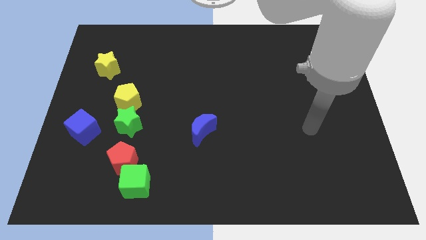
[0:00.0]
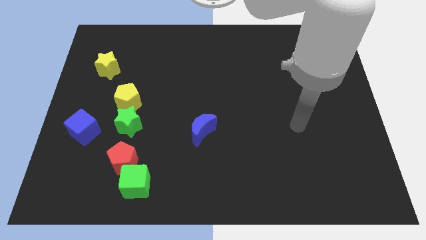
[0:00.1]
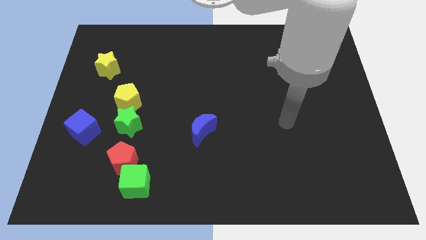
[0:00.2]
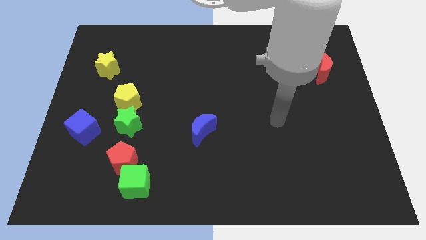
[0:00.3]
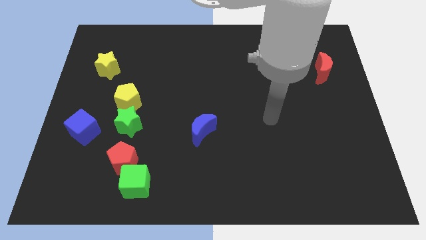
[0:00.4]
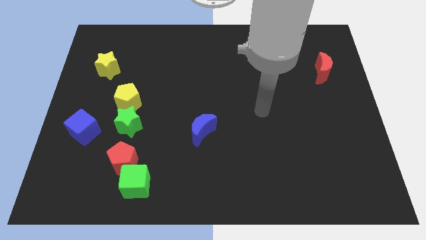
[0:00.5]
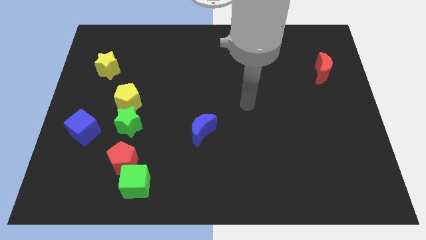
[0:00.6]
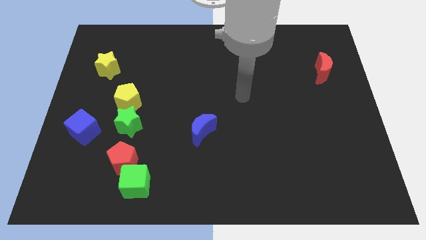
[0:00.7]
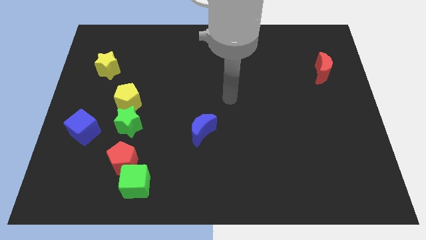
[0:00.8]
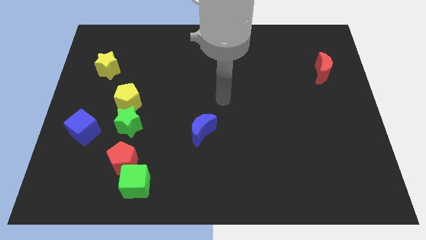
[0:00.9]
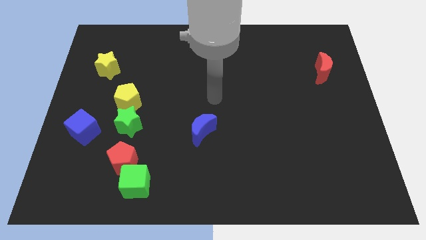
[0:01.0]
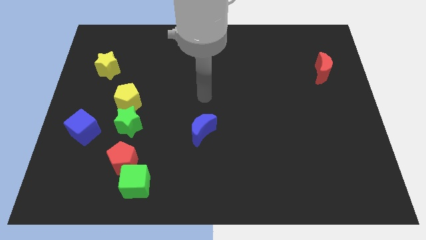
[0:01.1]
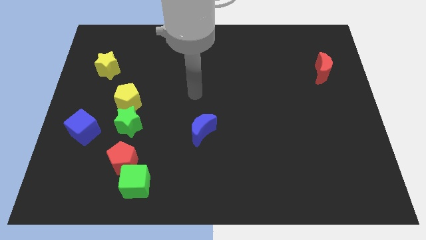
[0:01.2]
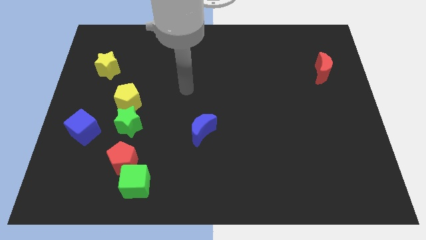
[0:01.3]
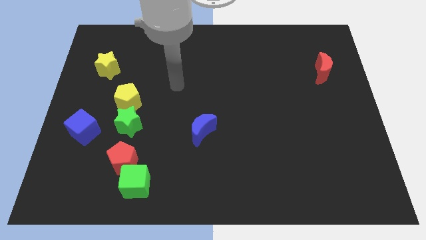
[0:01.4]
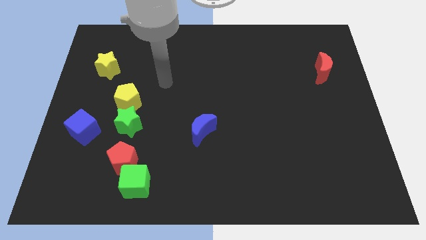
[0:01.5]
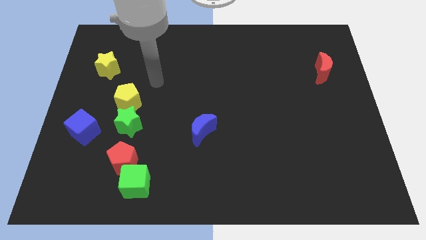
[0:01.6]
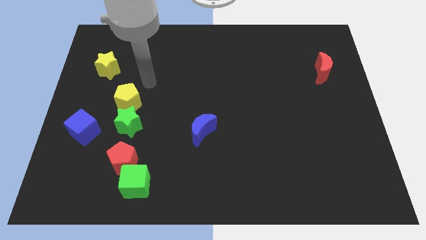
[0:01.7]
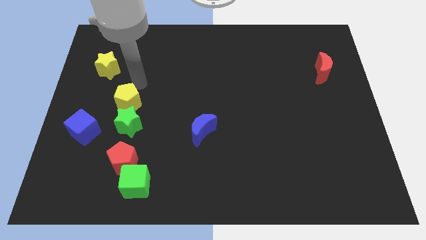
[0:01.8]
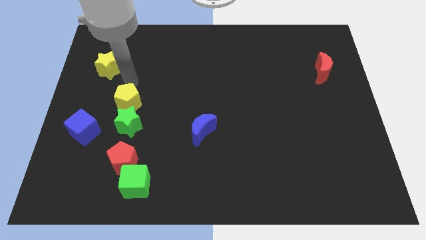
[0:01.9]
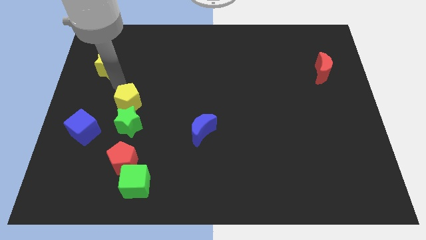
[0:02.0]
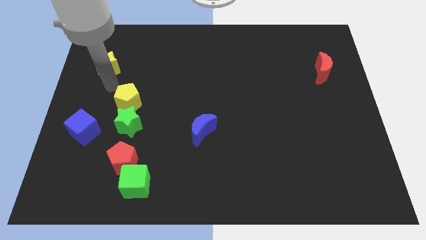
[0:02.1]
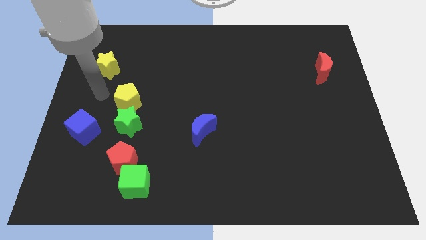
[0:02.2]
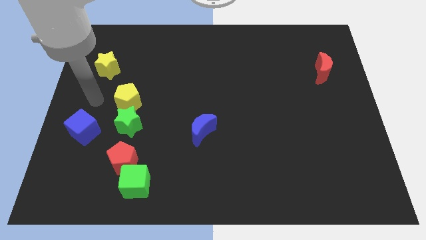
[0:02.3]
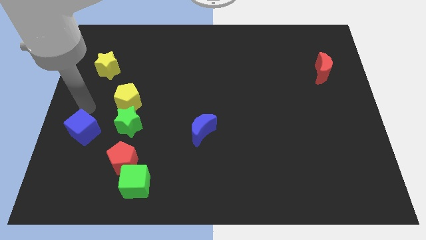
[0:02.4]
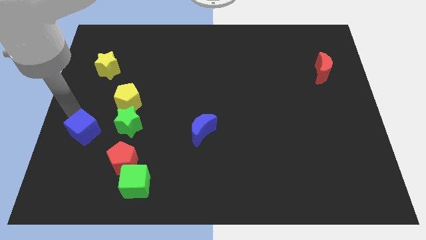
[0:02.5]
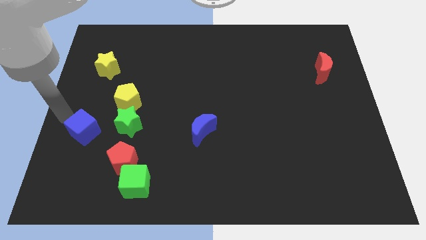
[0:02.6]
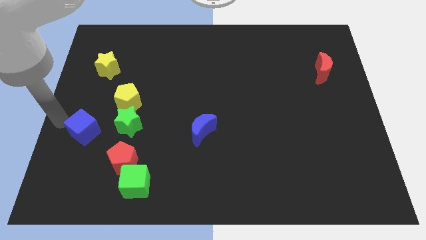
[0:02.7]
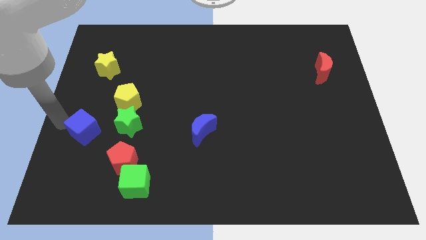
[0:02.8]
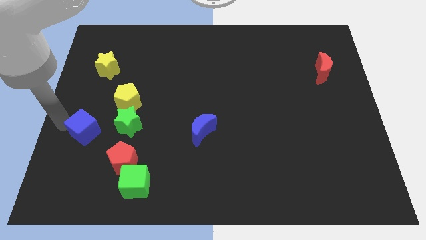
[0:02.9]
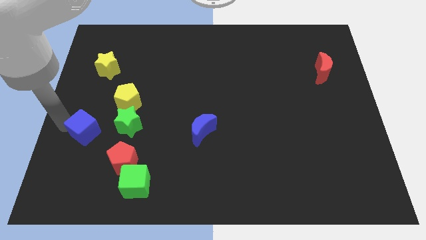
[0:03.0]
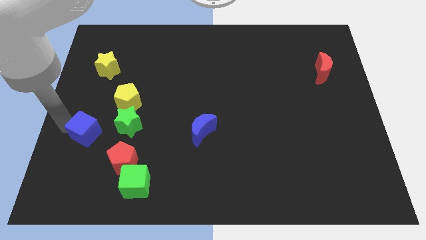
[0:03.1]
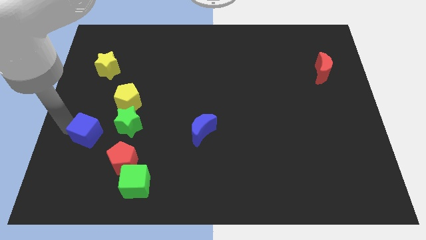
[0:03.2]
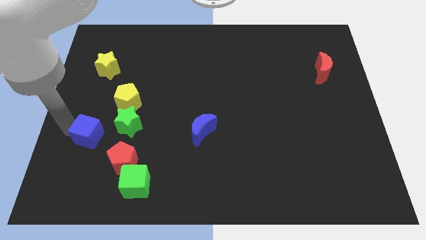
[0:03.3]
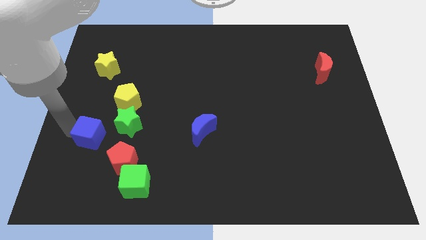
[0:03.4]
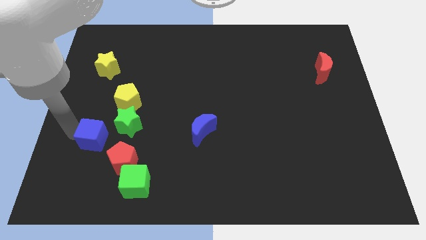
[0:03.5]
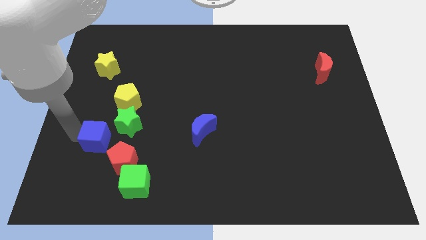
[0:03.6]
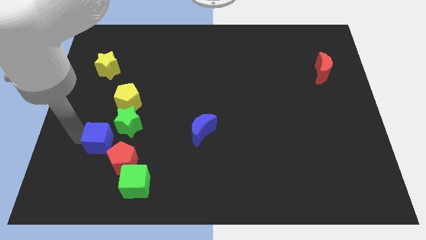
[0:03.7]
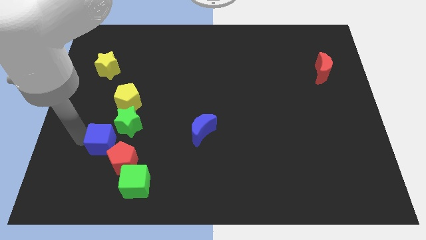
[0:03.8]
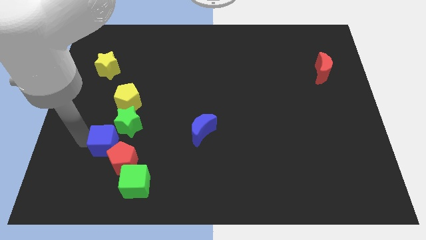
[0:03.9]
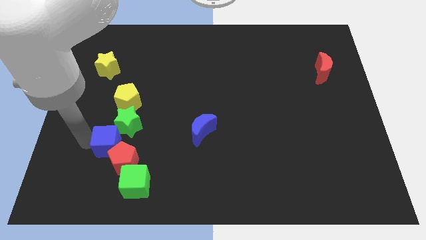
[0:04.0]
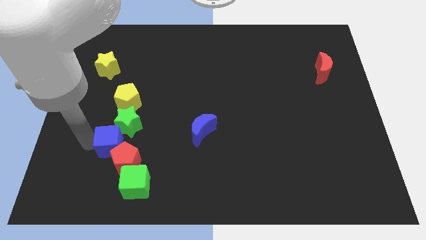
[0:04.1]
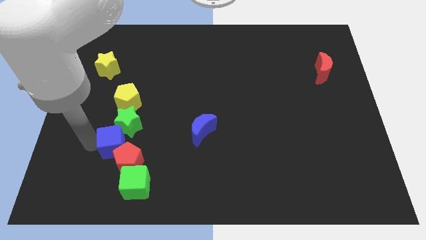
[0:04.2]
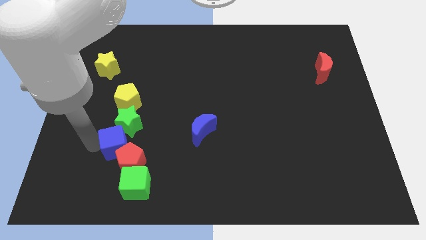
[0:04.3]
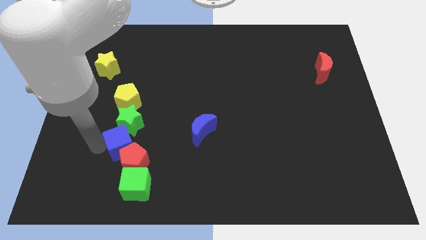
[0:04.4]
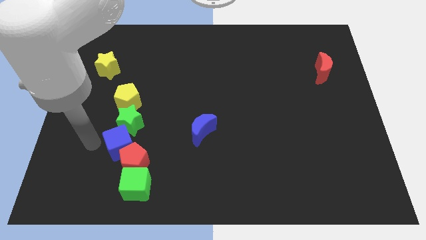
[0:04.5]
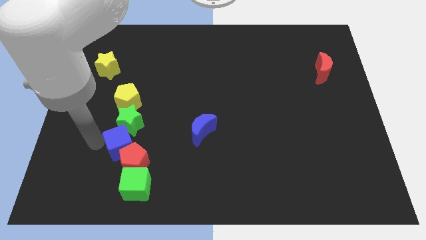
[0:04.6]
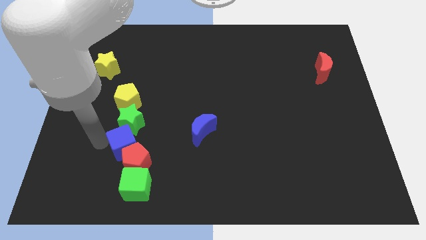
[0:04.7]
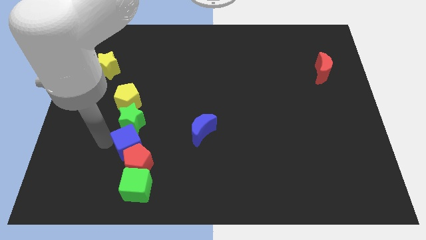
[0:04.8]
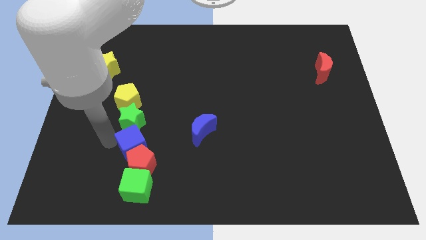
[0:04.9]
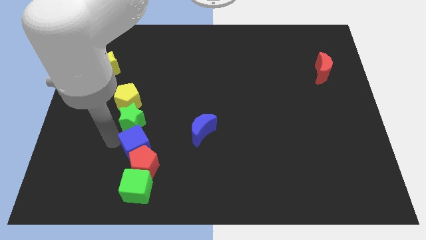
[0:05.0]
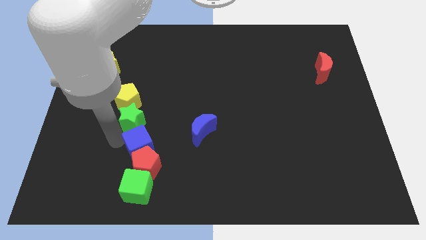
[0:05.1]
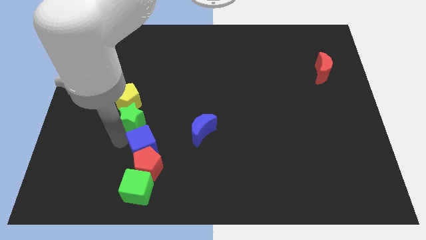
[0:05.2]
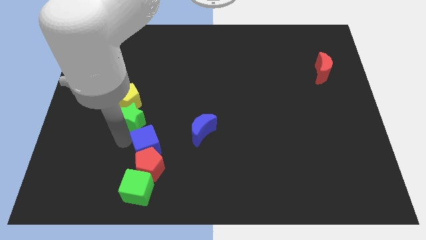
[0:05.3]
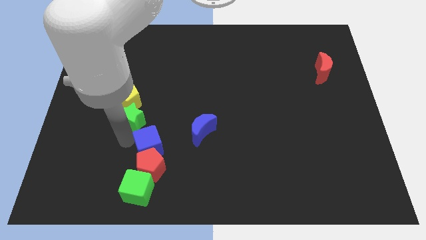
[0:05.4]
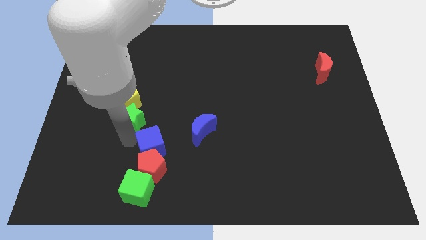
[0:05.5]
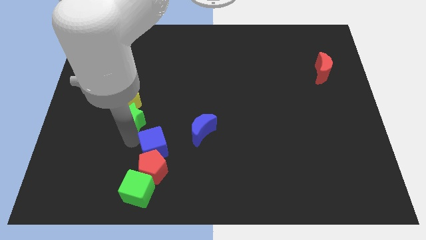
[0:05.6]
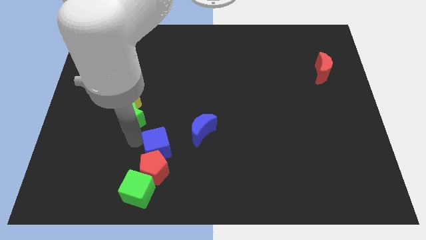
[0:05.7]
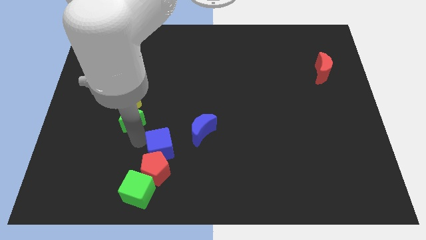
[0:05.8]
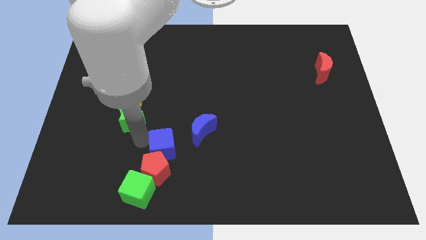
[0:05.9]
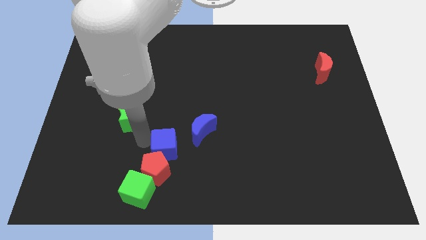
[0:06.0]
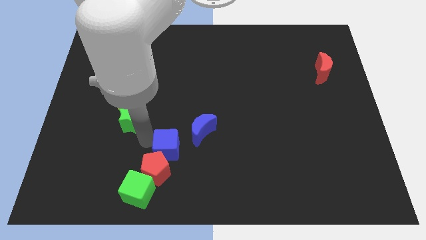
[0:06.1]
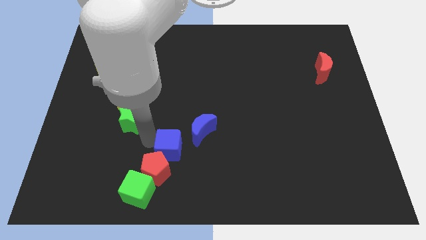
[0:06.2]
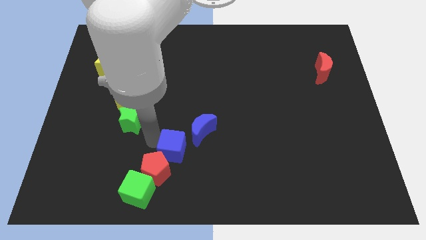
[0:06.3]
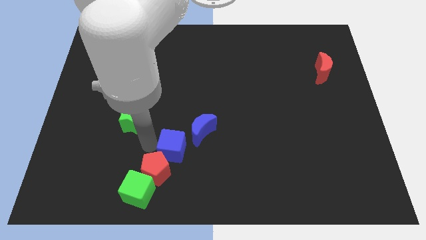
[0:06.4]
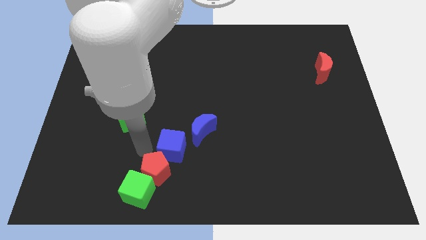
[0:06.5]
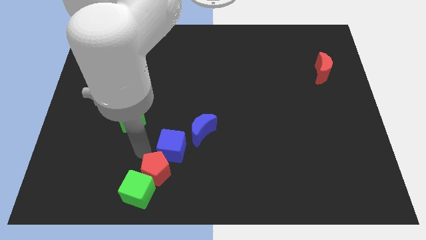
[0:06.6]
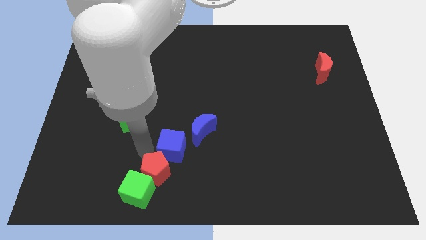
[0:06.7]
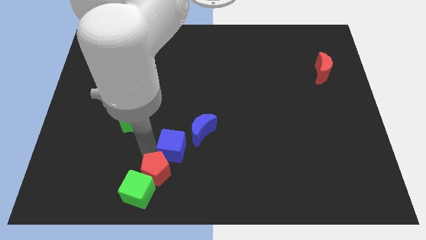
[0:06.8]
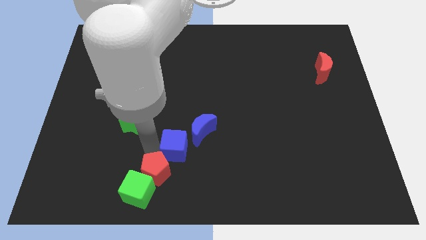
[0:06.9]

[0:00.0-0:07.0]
push the blue cube right

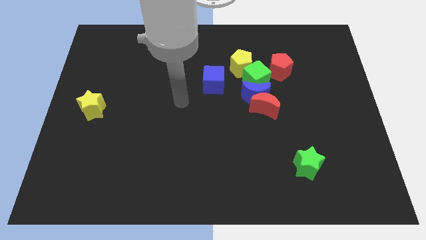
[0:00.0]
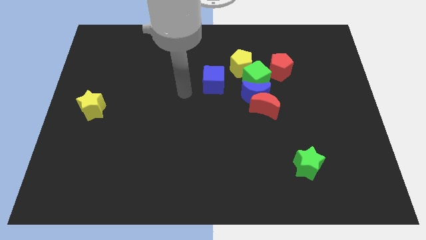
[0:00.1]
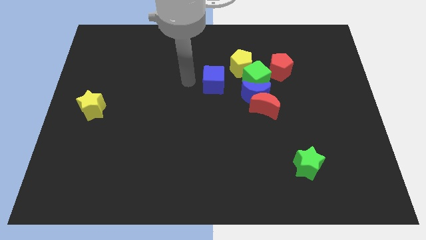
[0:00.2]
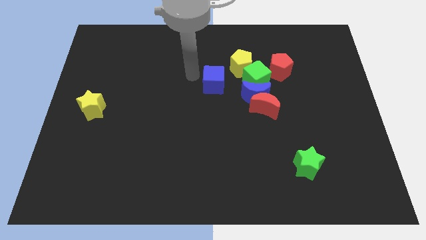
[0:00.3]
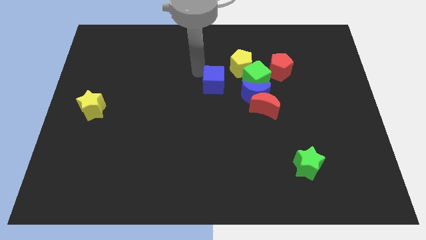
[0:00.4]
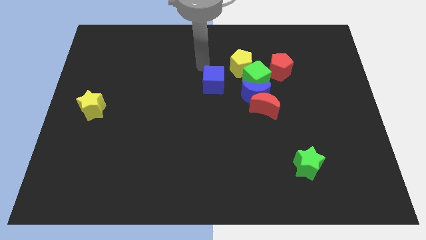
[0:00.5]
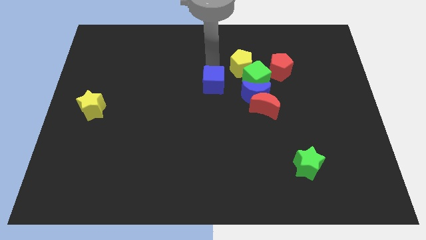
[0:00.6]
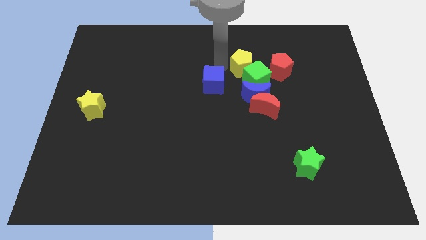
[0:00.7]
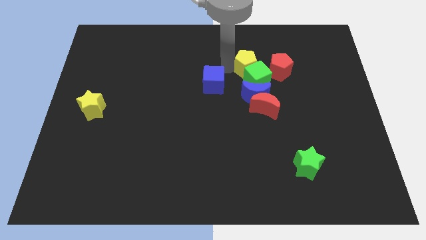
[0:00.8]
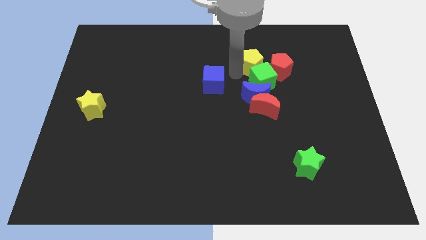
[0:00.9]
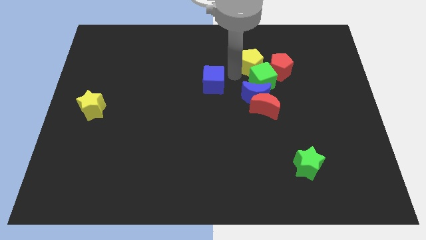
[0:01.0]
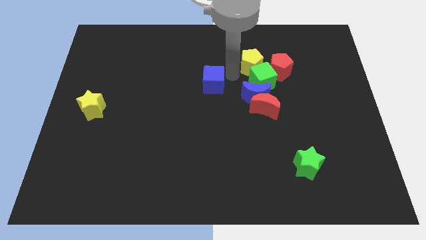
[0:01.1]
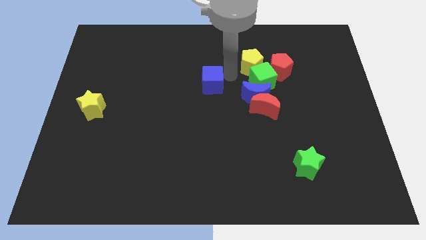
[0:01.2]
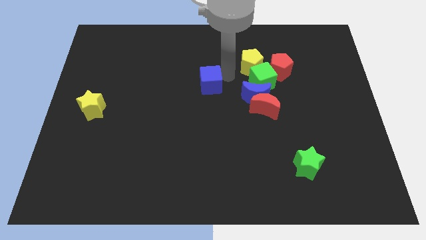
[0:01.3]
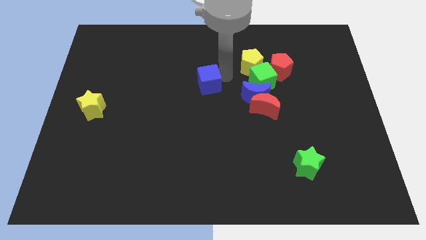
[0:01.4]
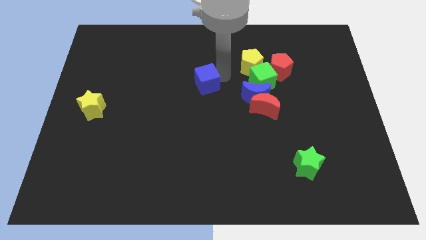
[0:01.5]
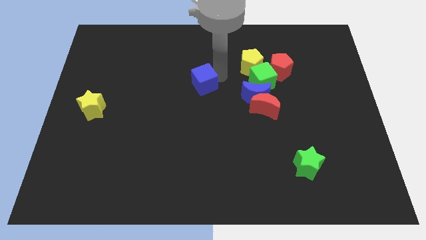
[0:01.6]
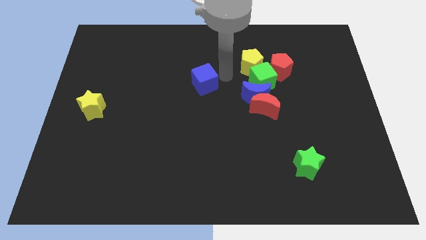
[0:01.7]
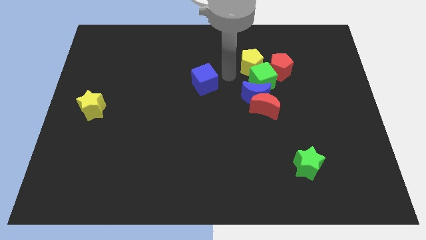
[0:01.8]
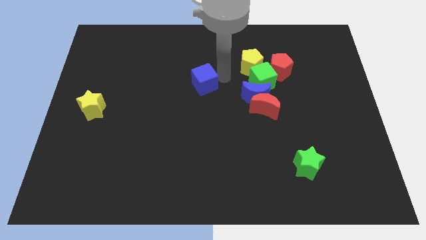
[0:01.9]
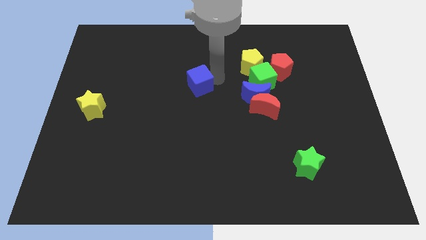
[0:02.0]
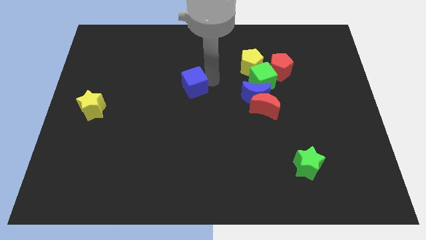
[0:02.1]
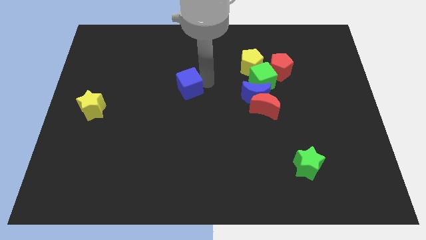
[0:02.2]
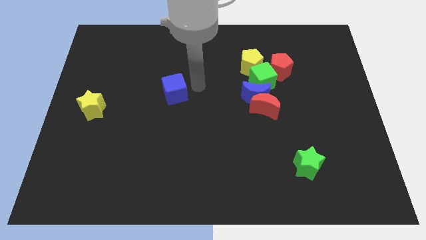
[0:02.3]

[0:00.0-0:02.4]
slide the blue cube slightly to the left
